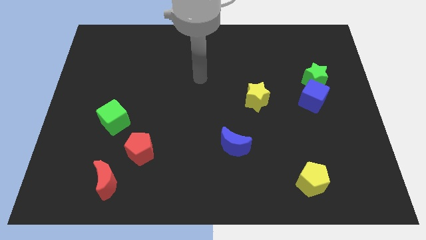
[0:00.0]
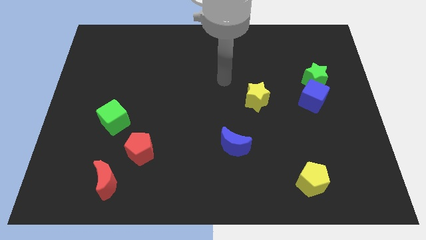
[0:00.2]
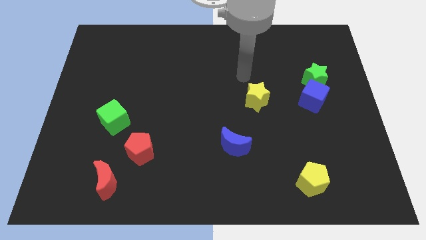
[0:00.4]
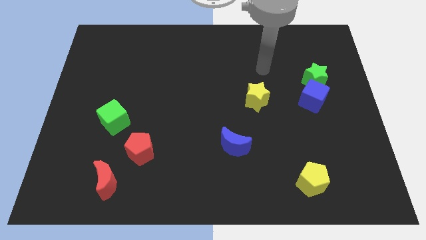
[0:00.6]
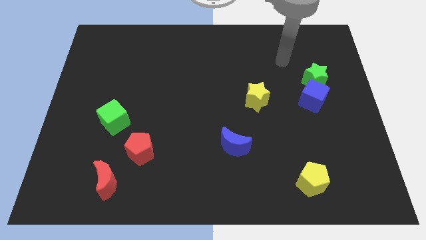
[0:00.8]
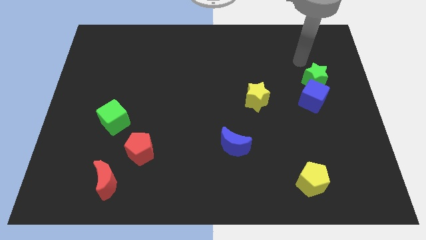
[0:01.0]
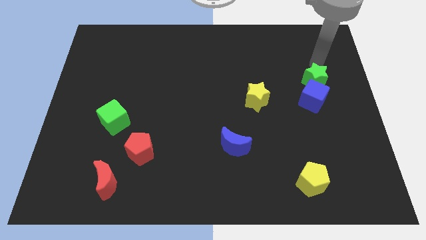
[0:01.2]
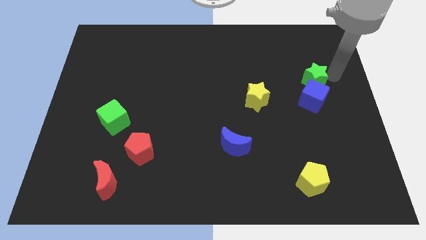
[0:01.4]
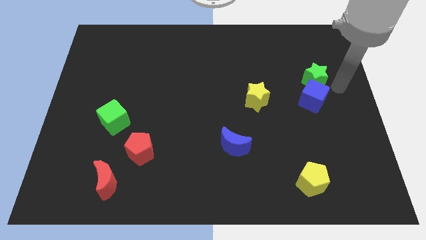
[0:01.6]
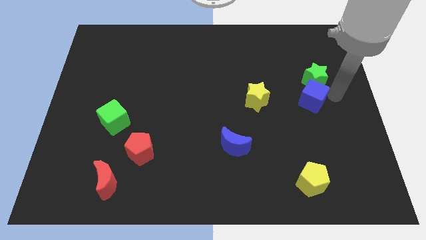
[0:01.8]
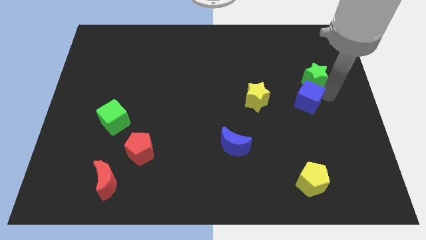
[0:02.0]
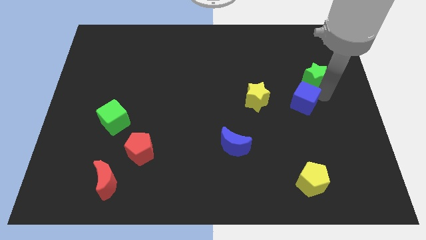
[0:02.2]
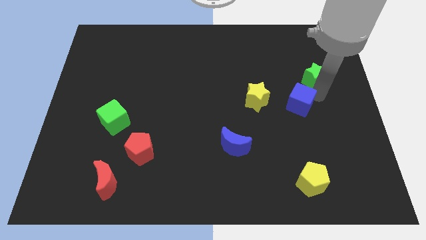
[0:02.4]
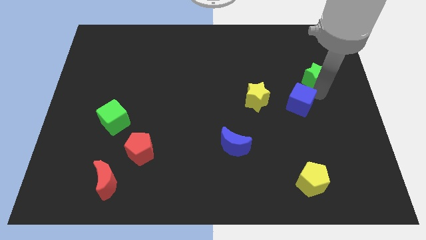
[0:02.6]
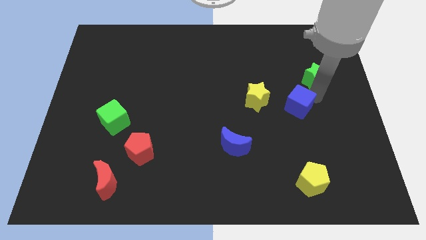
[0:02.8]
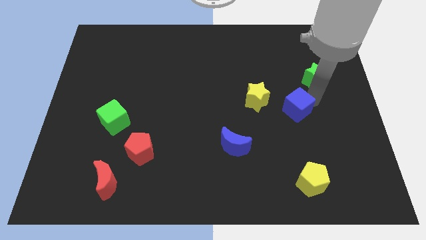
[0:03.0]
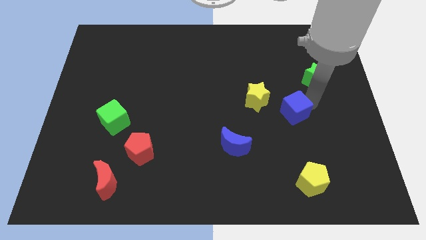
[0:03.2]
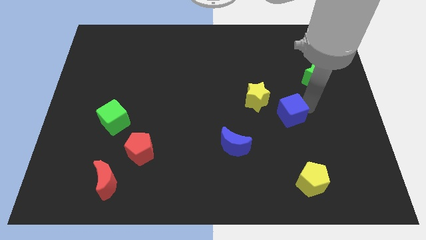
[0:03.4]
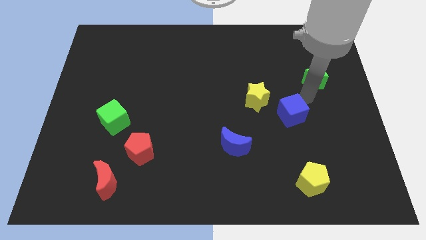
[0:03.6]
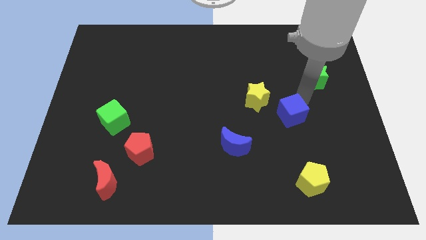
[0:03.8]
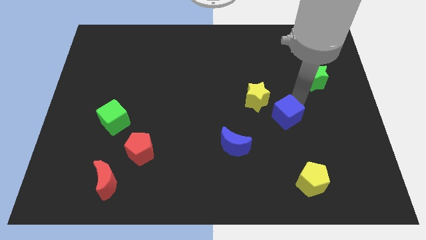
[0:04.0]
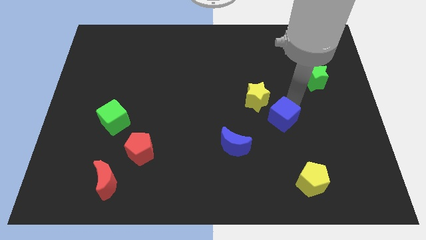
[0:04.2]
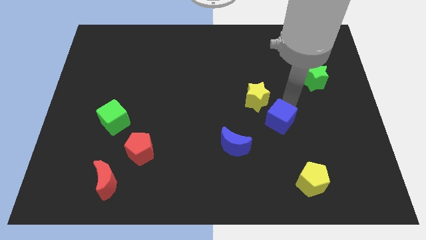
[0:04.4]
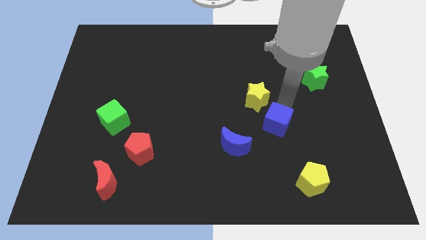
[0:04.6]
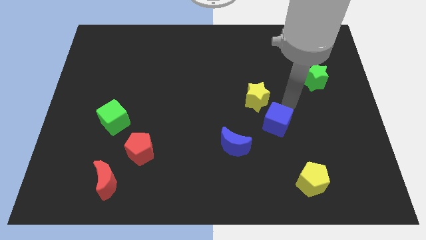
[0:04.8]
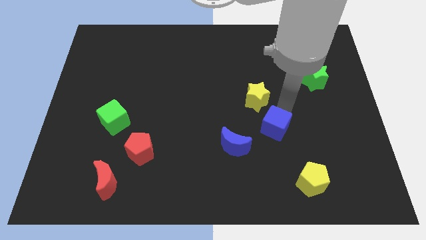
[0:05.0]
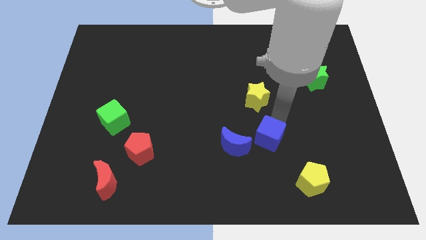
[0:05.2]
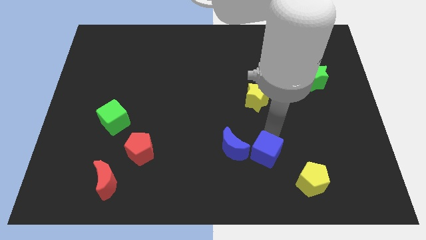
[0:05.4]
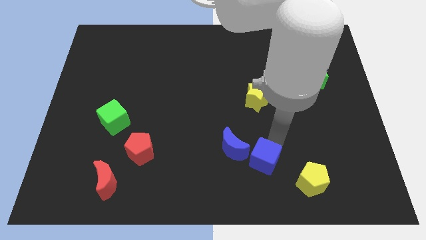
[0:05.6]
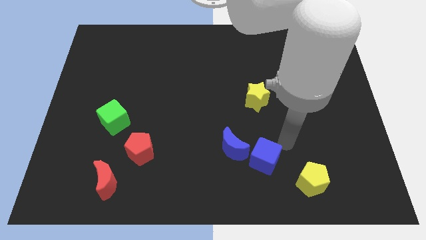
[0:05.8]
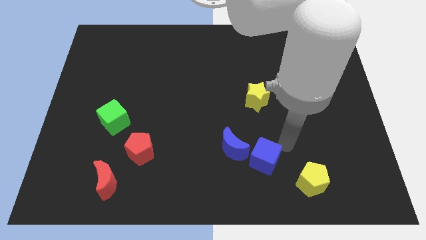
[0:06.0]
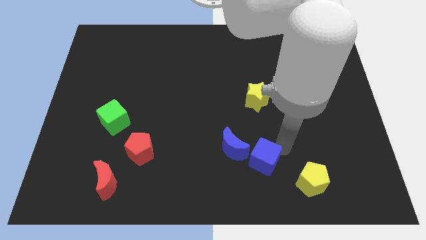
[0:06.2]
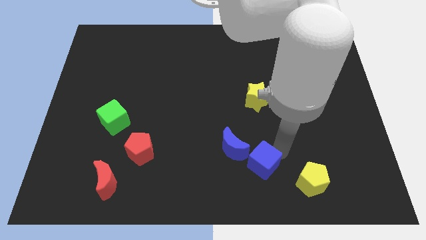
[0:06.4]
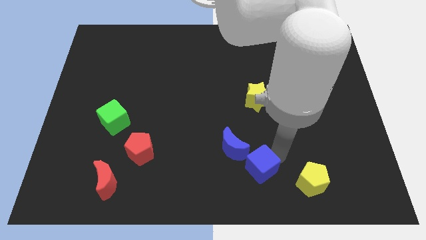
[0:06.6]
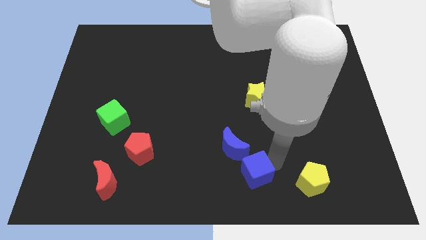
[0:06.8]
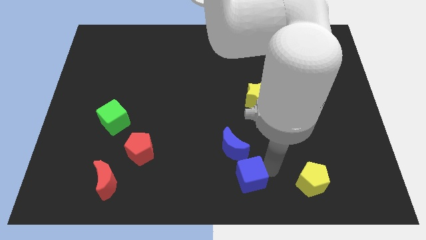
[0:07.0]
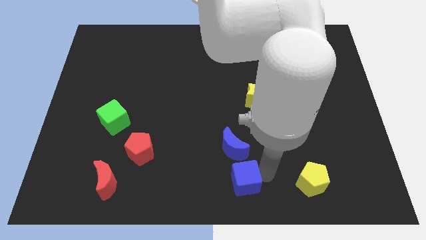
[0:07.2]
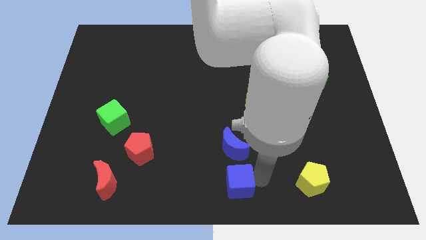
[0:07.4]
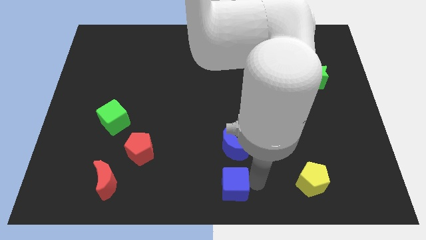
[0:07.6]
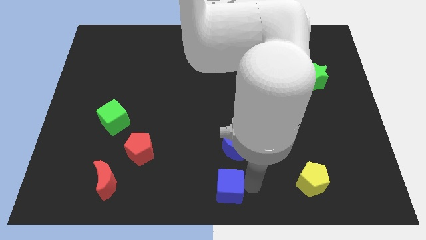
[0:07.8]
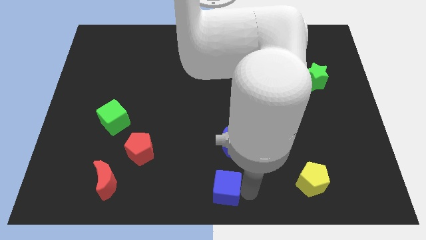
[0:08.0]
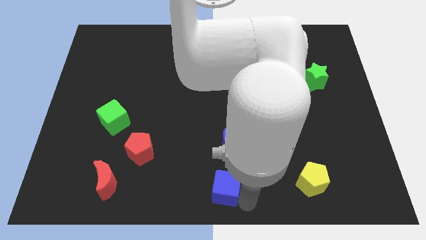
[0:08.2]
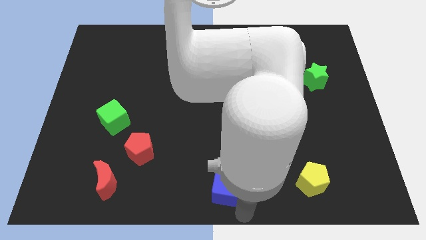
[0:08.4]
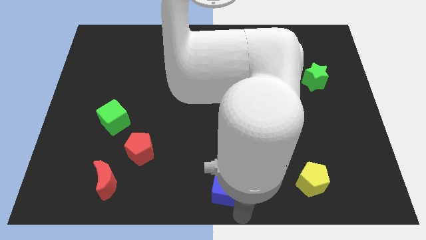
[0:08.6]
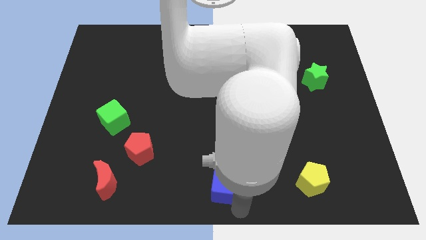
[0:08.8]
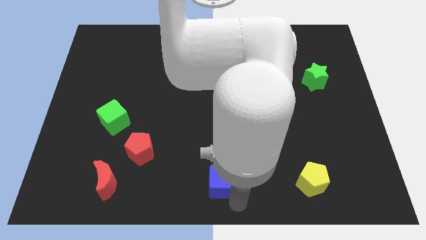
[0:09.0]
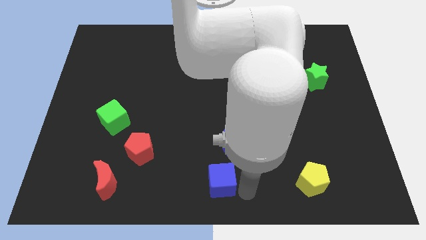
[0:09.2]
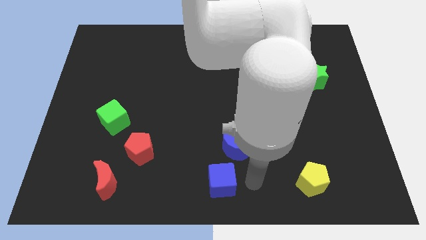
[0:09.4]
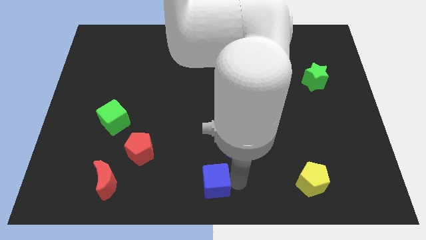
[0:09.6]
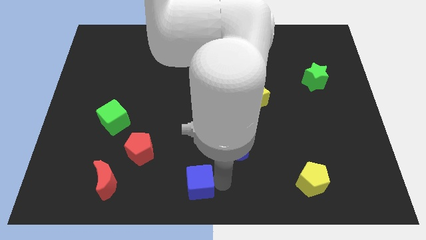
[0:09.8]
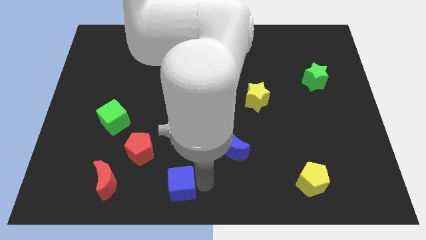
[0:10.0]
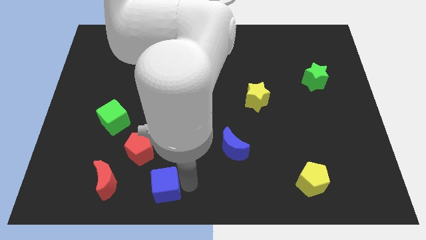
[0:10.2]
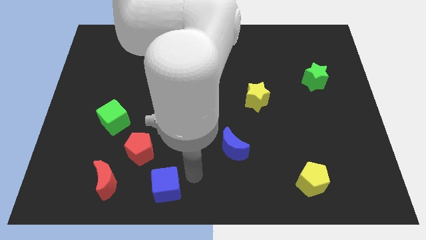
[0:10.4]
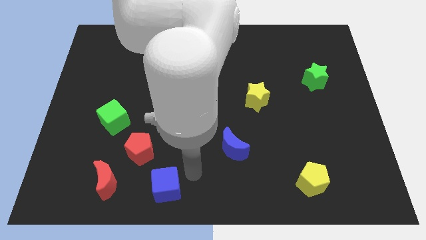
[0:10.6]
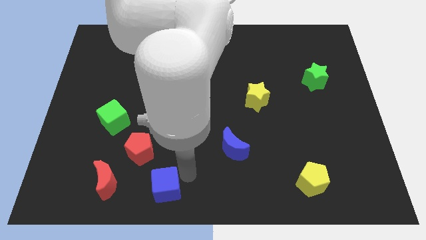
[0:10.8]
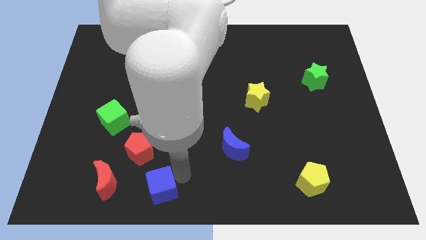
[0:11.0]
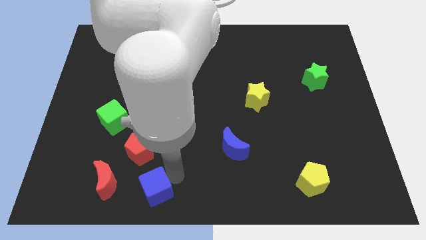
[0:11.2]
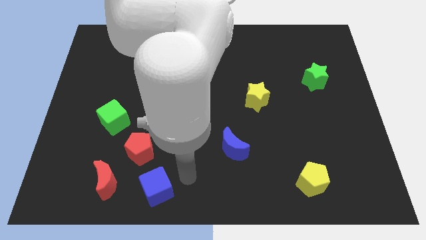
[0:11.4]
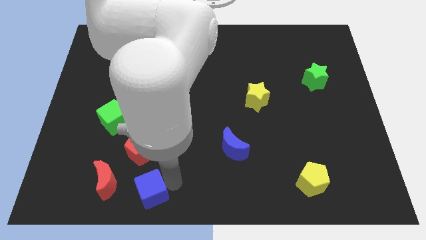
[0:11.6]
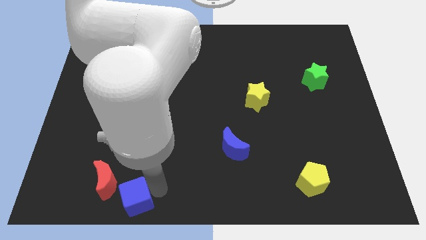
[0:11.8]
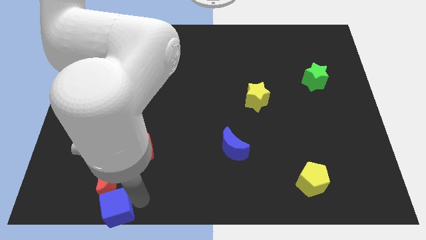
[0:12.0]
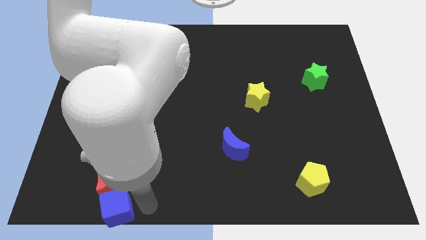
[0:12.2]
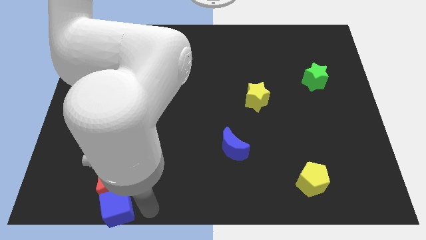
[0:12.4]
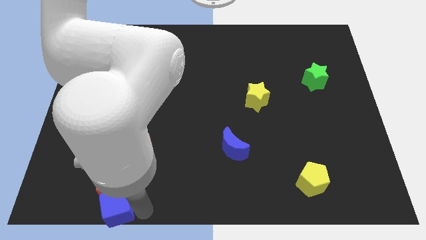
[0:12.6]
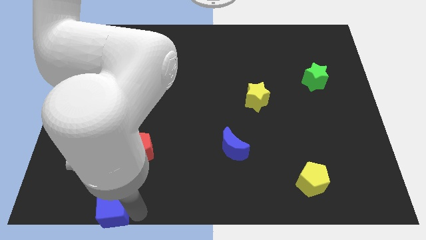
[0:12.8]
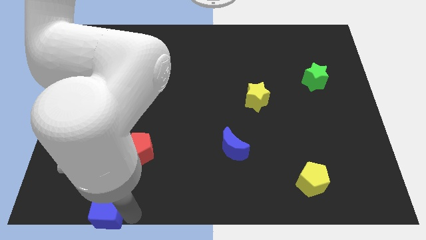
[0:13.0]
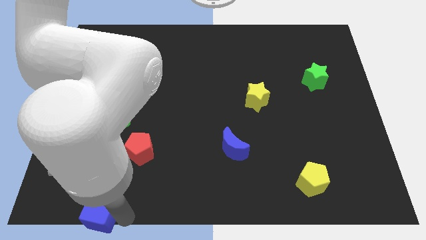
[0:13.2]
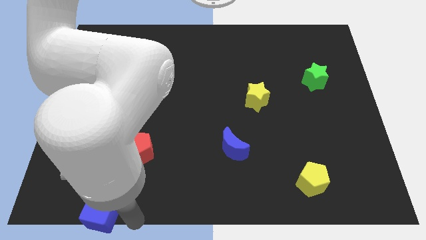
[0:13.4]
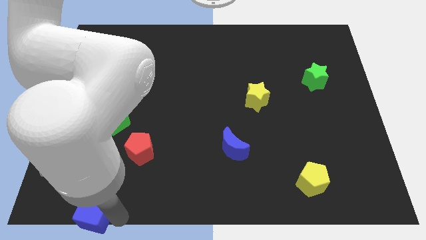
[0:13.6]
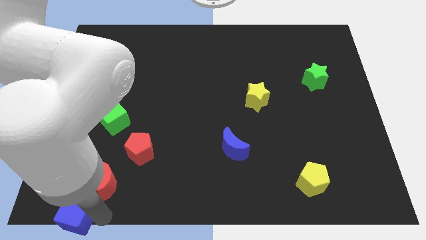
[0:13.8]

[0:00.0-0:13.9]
move the blue cube to the bottom left
